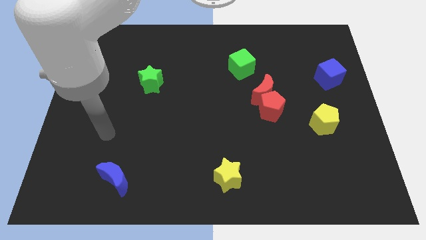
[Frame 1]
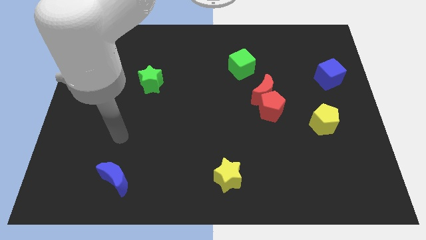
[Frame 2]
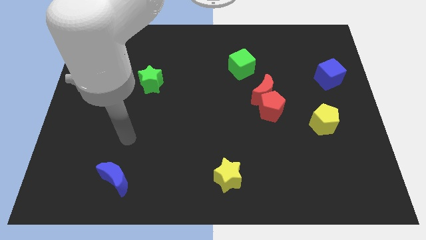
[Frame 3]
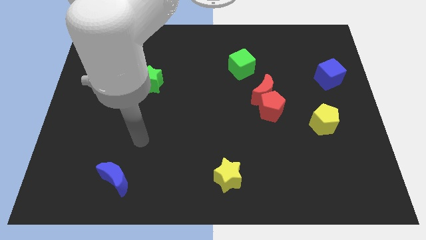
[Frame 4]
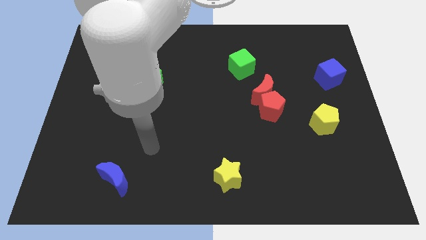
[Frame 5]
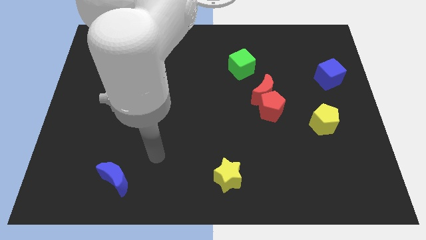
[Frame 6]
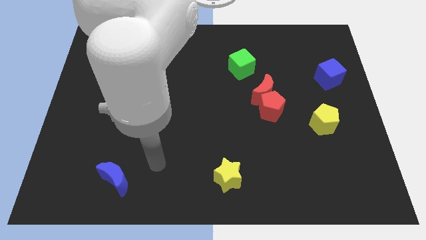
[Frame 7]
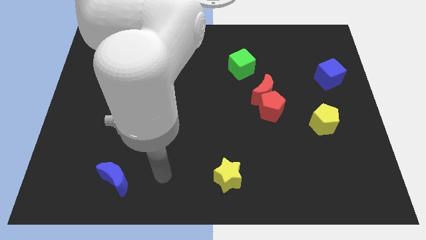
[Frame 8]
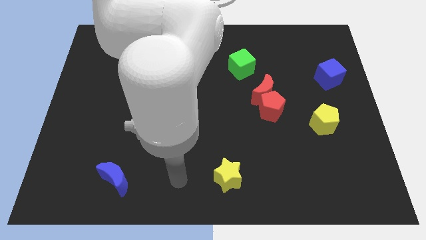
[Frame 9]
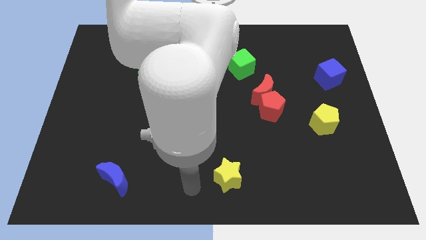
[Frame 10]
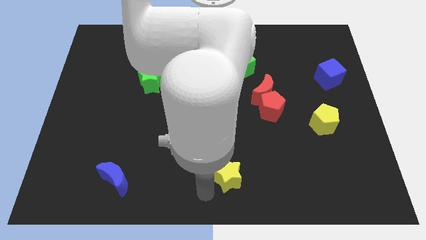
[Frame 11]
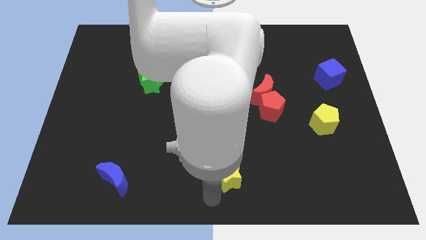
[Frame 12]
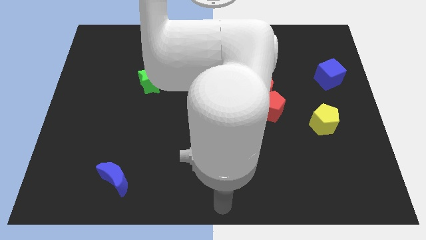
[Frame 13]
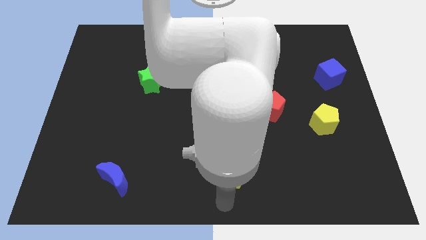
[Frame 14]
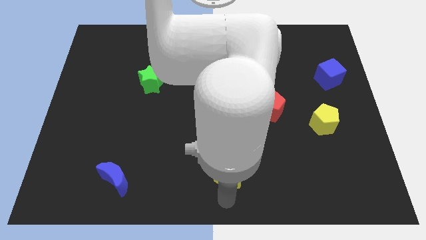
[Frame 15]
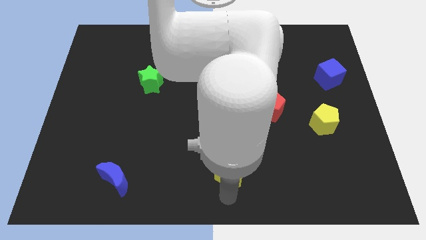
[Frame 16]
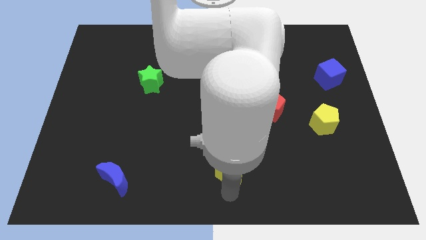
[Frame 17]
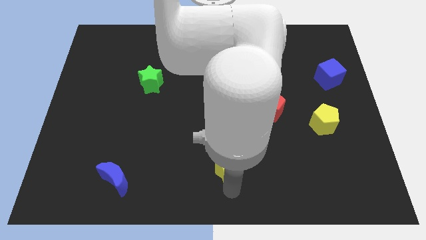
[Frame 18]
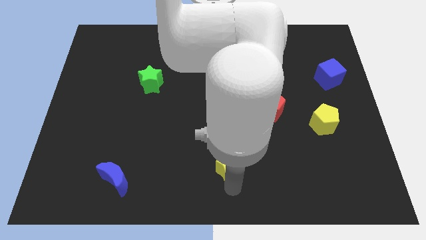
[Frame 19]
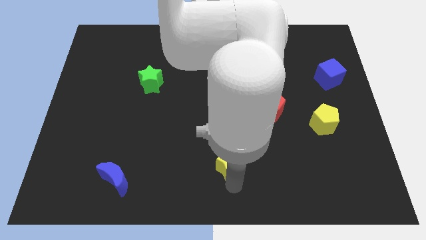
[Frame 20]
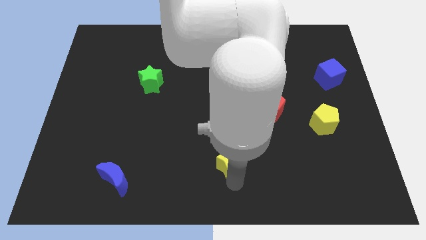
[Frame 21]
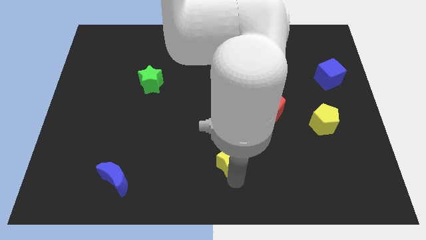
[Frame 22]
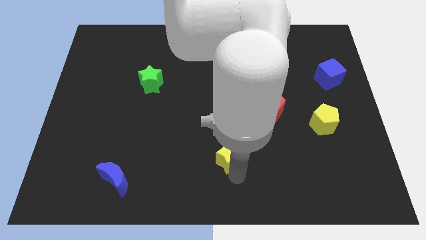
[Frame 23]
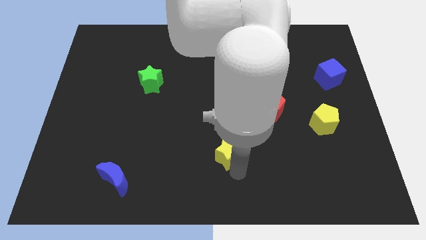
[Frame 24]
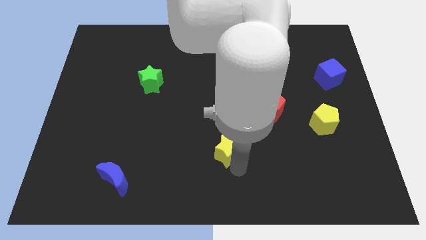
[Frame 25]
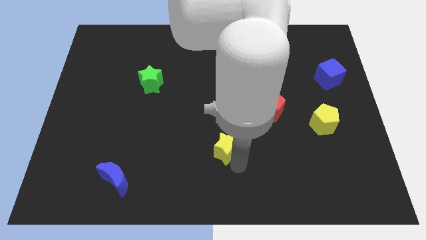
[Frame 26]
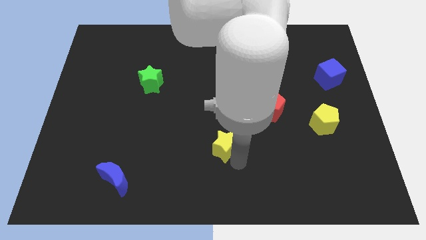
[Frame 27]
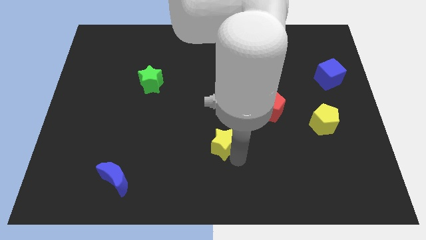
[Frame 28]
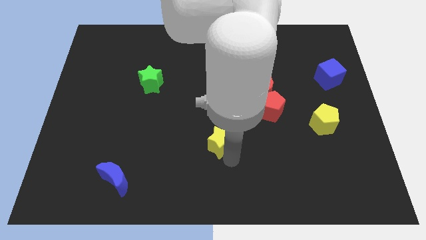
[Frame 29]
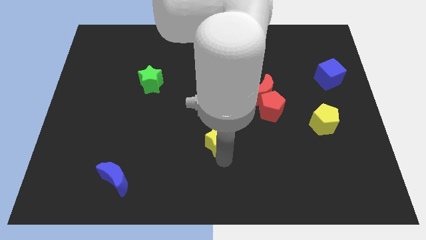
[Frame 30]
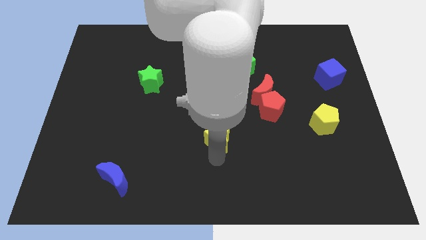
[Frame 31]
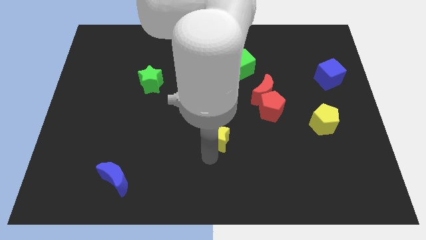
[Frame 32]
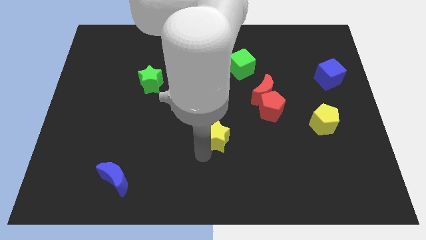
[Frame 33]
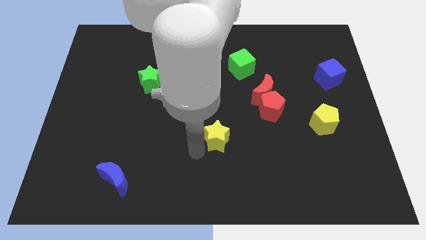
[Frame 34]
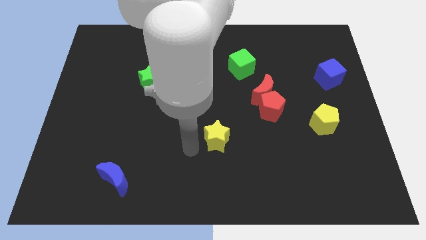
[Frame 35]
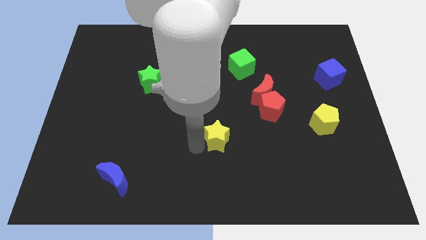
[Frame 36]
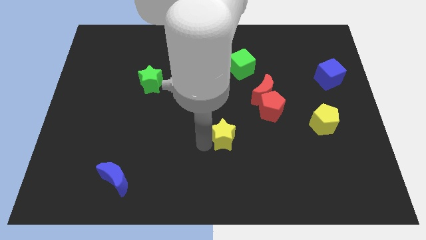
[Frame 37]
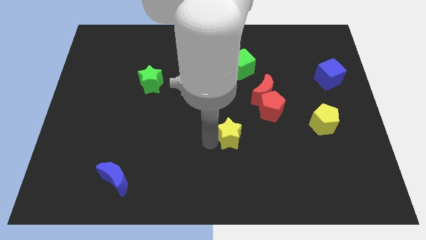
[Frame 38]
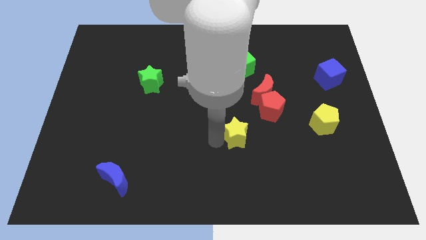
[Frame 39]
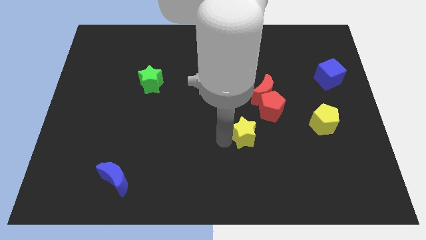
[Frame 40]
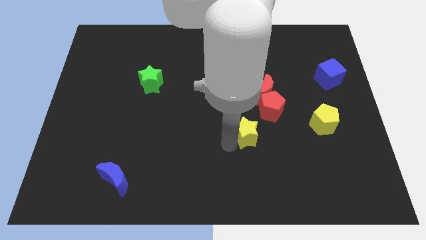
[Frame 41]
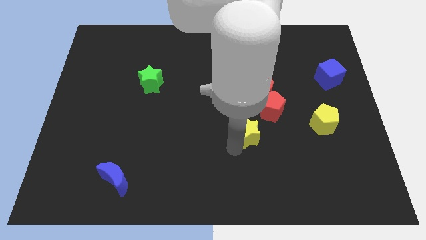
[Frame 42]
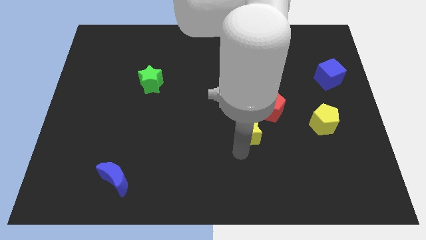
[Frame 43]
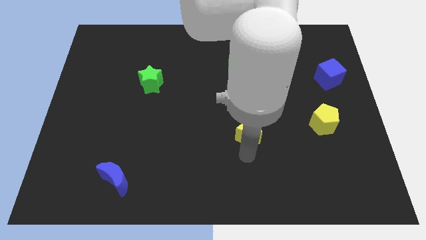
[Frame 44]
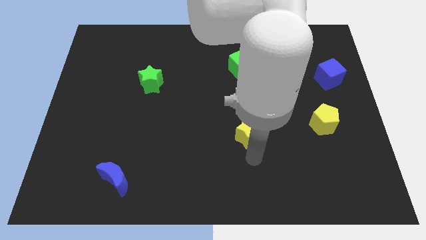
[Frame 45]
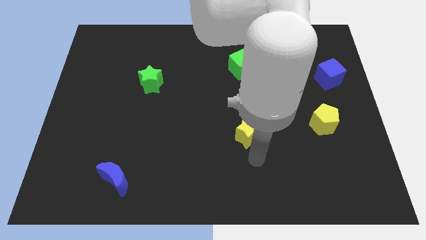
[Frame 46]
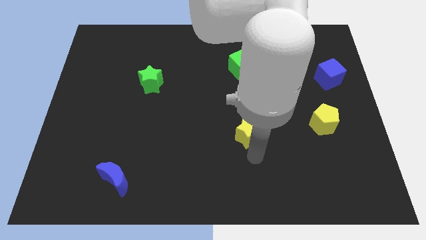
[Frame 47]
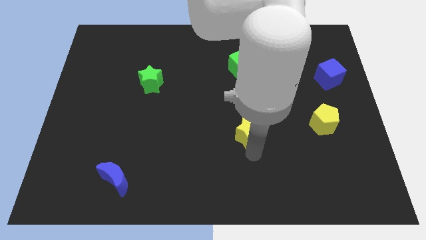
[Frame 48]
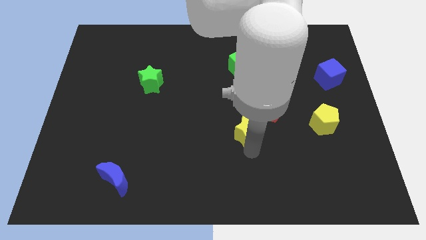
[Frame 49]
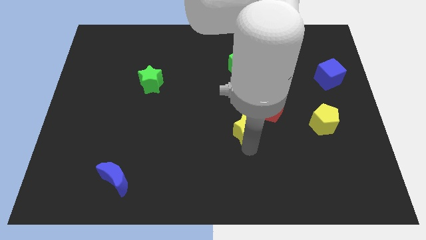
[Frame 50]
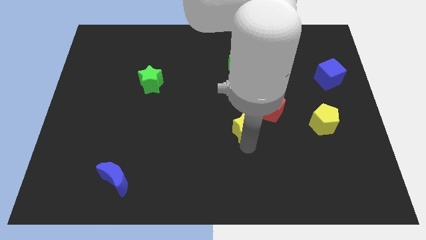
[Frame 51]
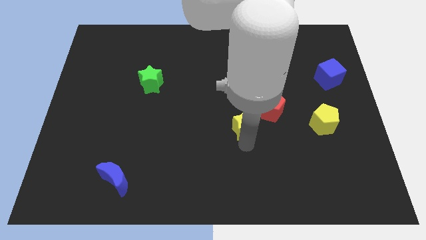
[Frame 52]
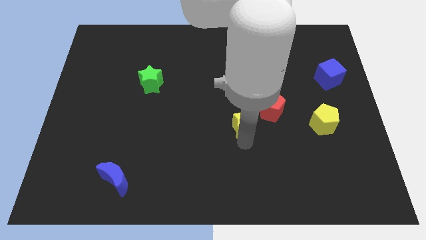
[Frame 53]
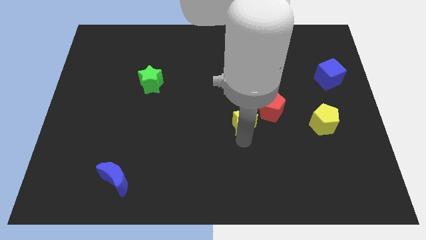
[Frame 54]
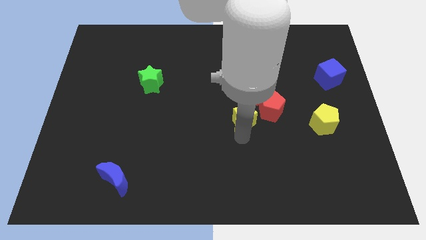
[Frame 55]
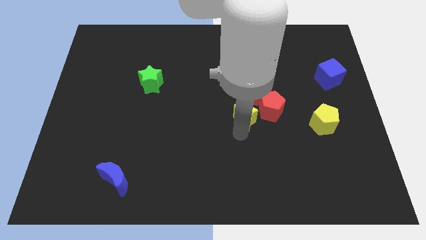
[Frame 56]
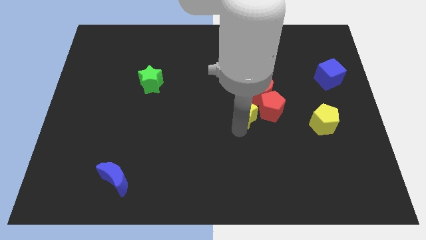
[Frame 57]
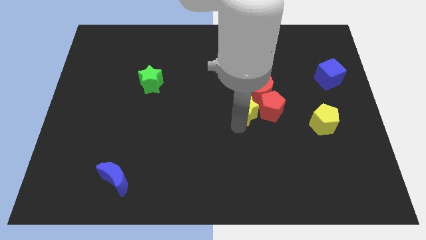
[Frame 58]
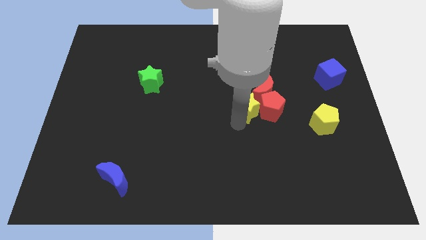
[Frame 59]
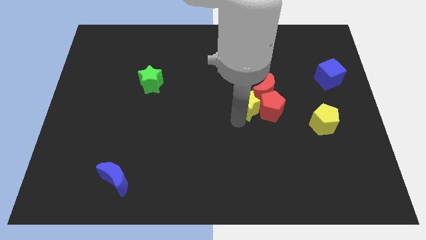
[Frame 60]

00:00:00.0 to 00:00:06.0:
push the yellow star to the red moon

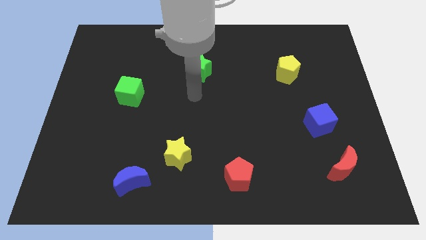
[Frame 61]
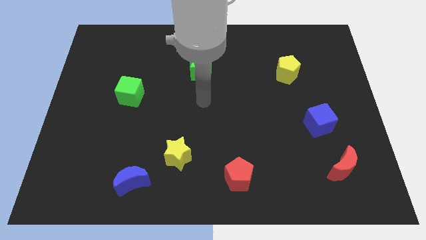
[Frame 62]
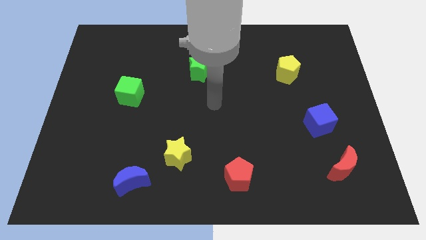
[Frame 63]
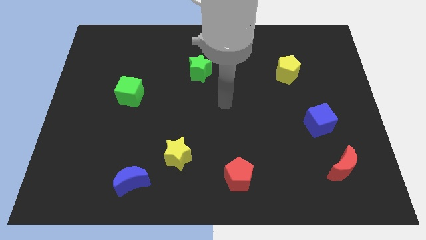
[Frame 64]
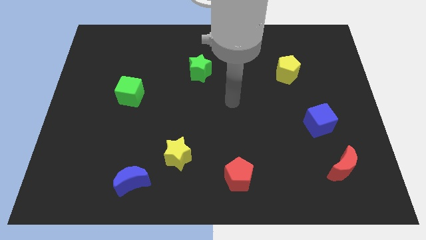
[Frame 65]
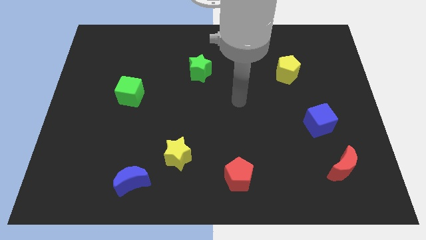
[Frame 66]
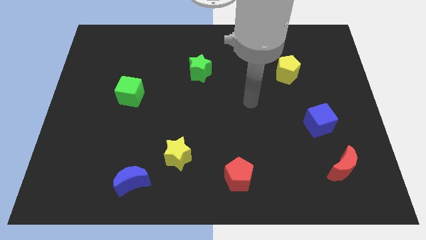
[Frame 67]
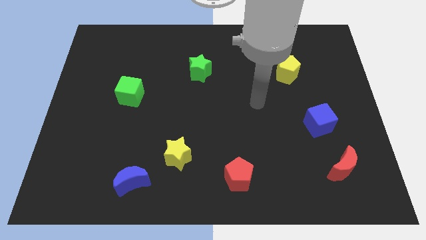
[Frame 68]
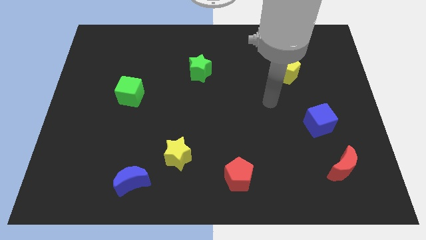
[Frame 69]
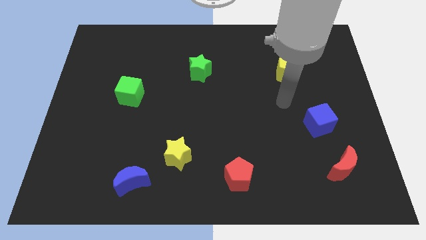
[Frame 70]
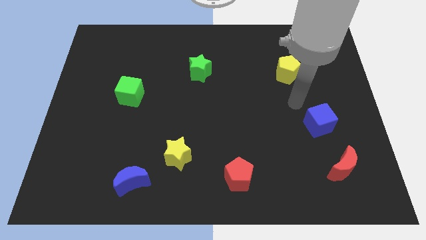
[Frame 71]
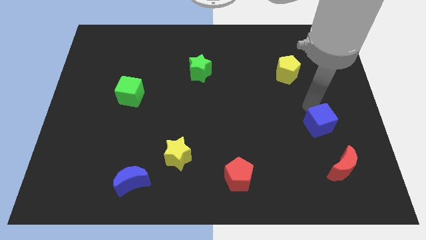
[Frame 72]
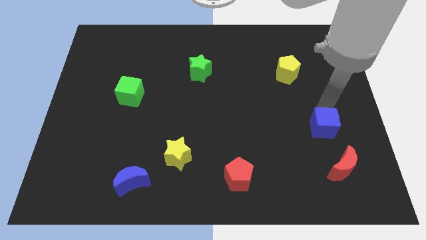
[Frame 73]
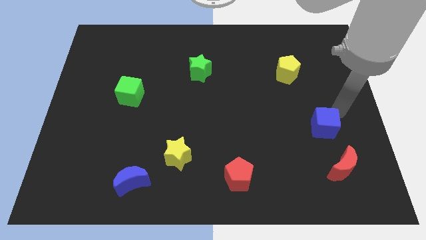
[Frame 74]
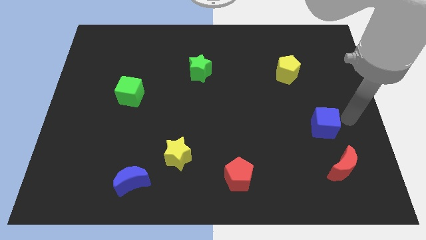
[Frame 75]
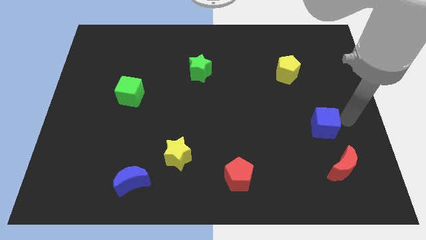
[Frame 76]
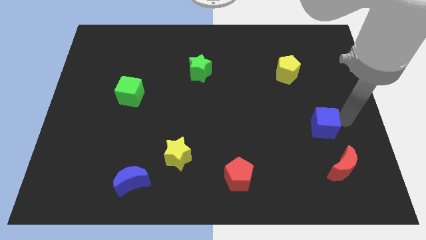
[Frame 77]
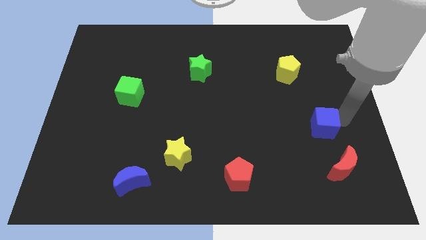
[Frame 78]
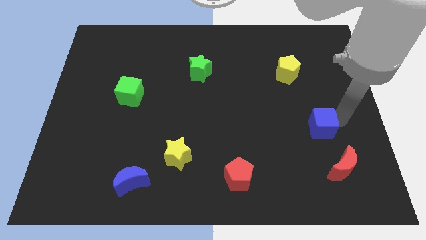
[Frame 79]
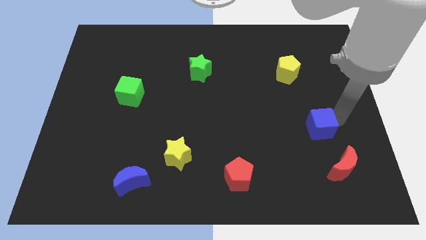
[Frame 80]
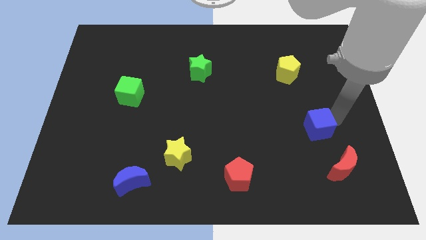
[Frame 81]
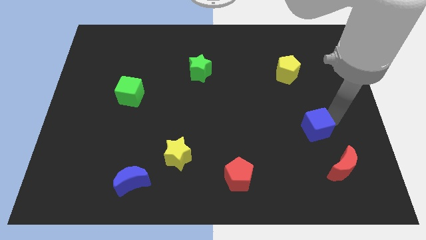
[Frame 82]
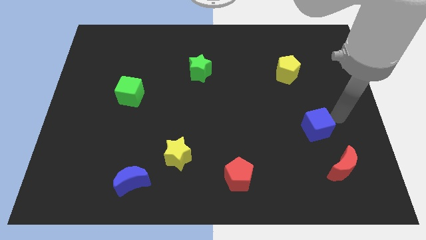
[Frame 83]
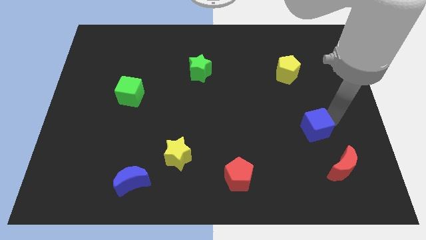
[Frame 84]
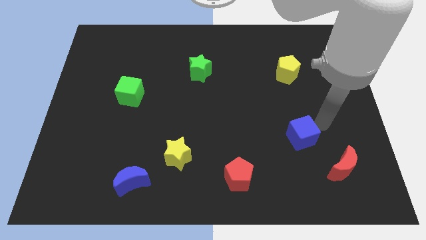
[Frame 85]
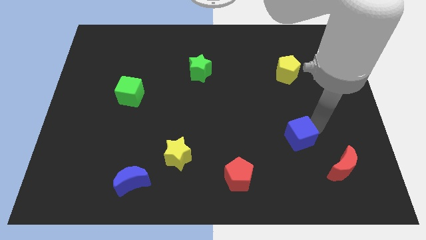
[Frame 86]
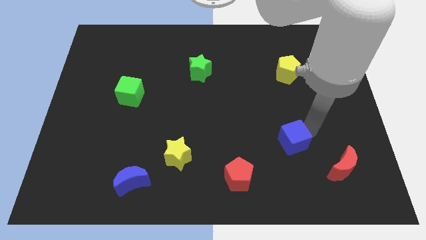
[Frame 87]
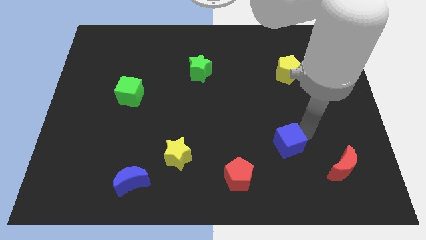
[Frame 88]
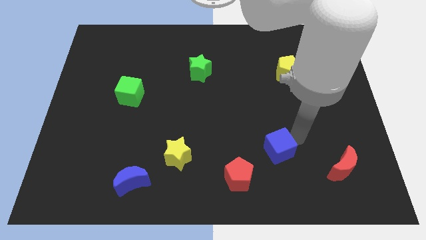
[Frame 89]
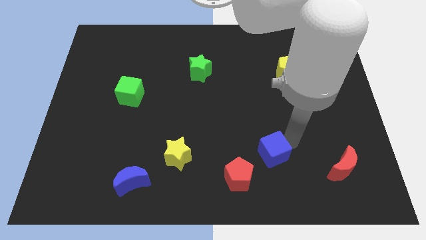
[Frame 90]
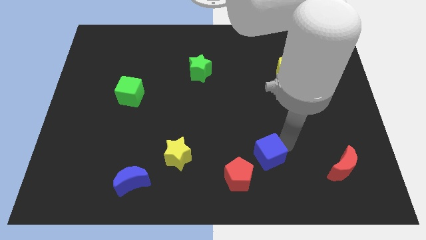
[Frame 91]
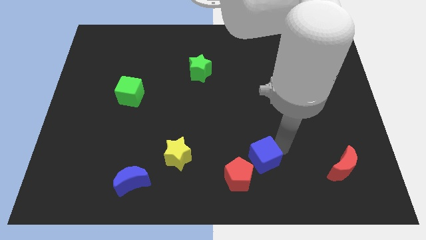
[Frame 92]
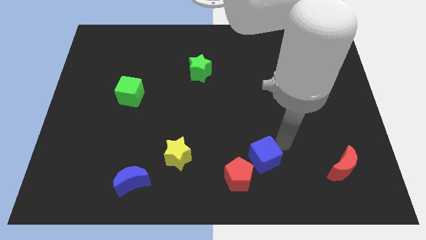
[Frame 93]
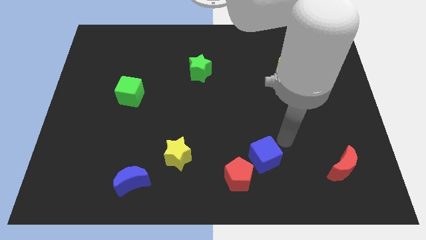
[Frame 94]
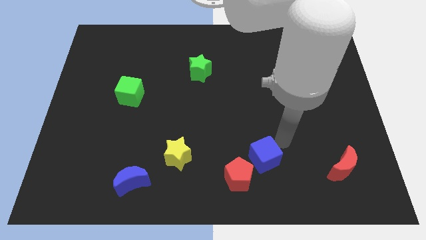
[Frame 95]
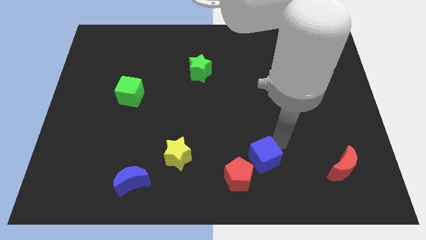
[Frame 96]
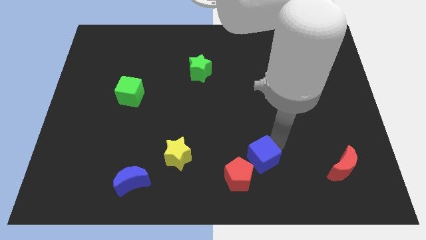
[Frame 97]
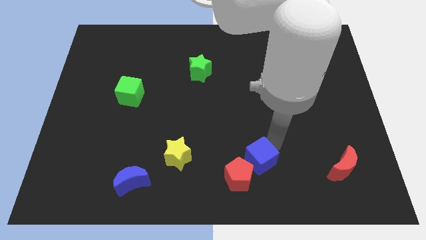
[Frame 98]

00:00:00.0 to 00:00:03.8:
move the blue cube next to the red pentagon
